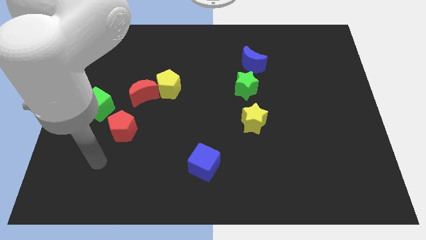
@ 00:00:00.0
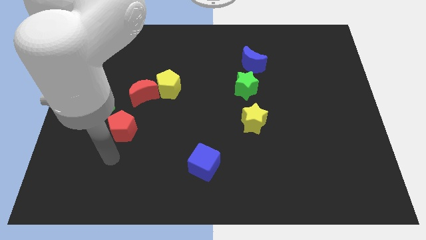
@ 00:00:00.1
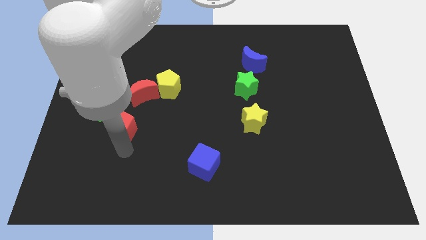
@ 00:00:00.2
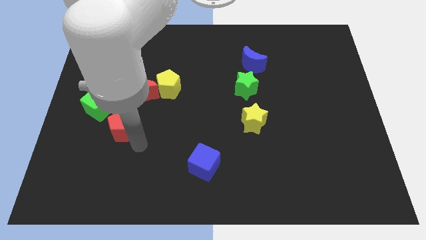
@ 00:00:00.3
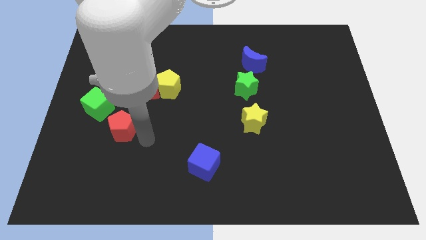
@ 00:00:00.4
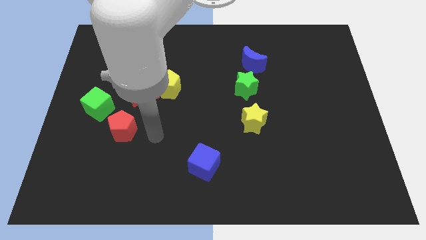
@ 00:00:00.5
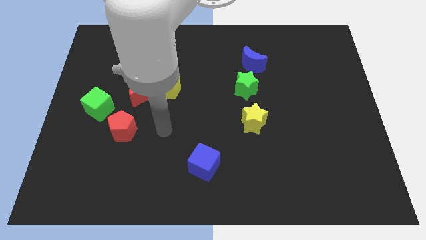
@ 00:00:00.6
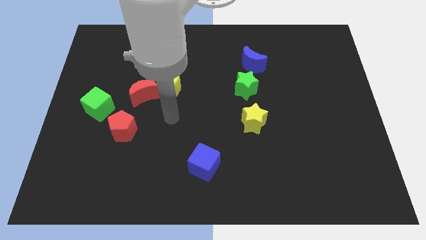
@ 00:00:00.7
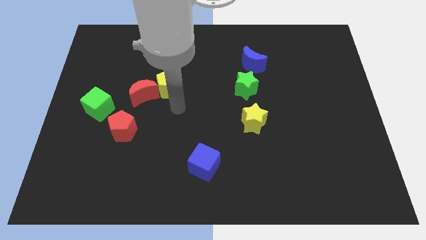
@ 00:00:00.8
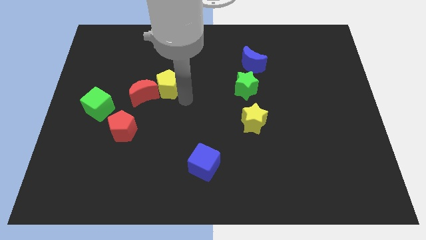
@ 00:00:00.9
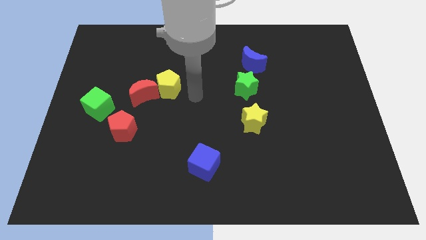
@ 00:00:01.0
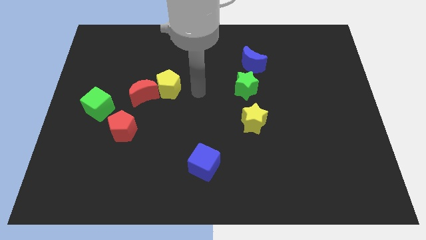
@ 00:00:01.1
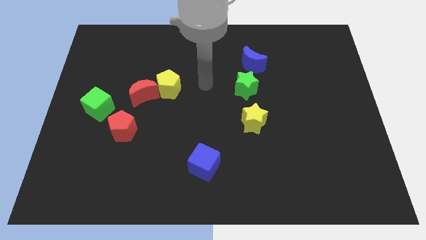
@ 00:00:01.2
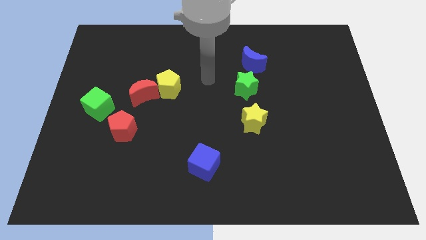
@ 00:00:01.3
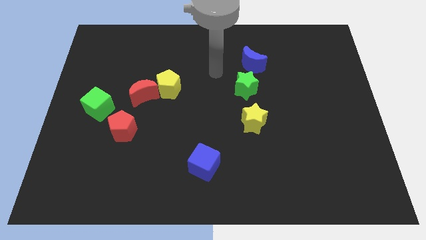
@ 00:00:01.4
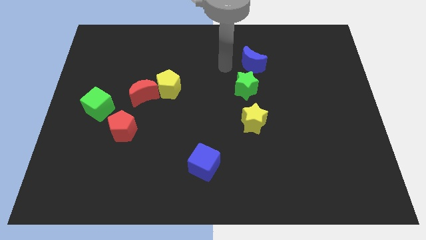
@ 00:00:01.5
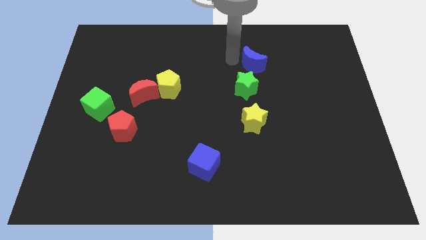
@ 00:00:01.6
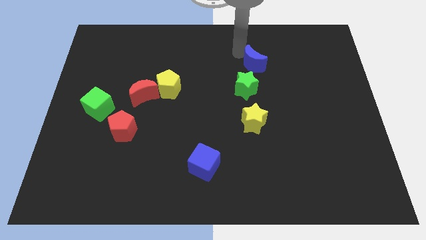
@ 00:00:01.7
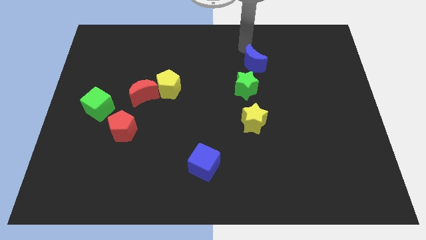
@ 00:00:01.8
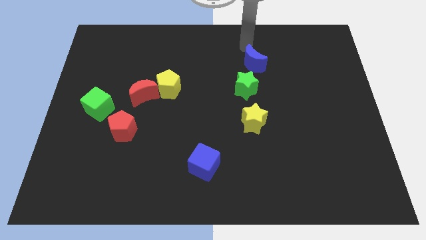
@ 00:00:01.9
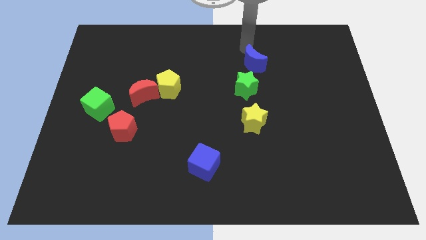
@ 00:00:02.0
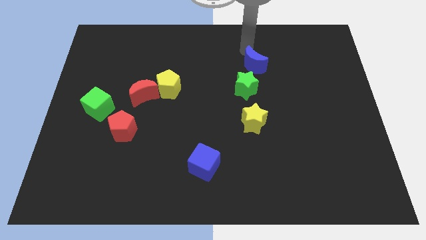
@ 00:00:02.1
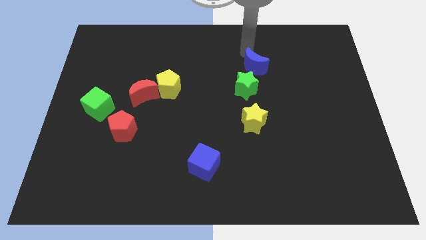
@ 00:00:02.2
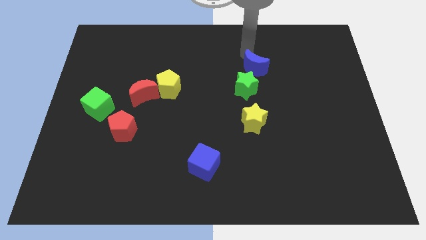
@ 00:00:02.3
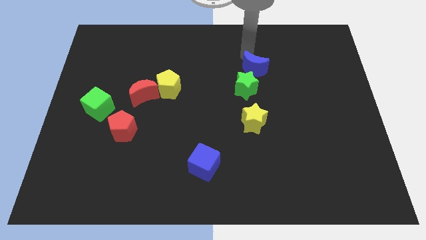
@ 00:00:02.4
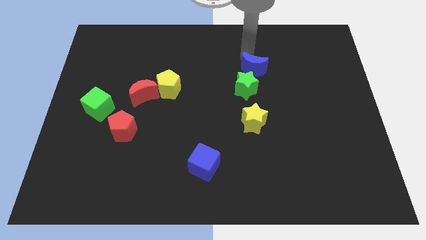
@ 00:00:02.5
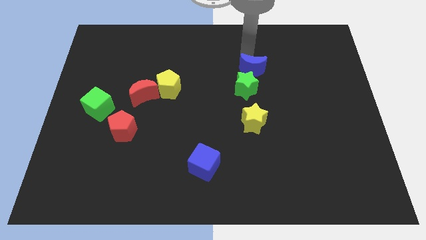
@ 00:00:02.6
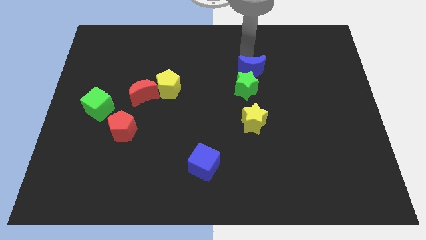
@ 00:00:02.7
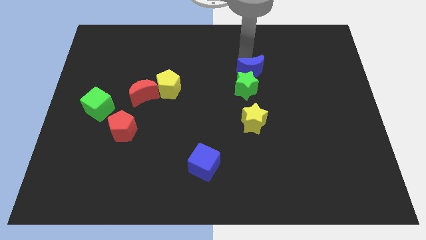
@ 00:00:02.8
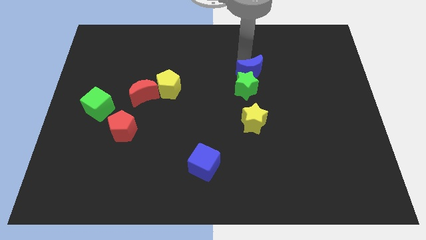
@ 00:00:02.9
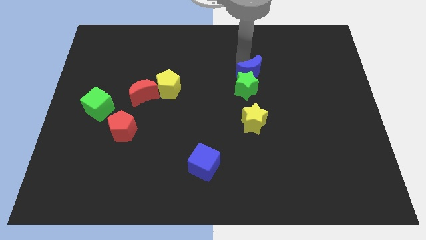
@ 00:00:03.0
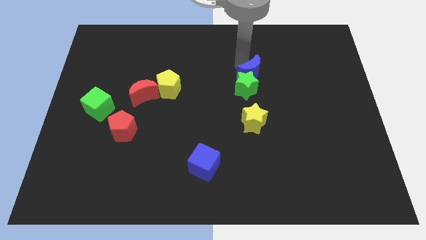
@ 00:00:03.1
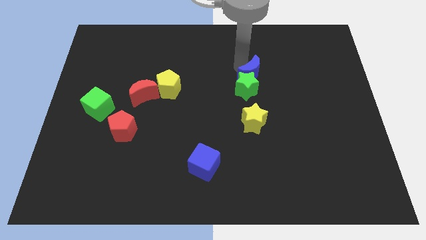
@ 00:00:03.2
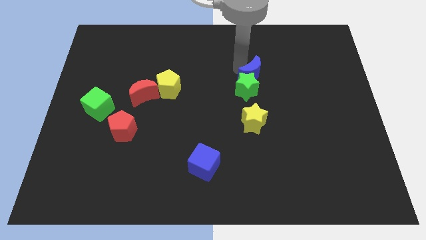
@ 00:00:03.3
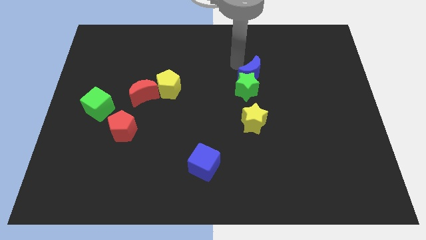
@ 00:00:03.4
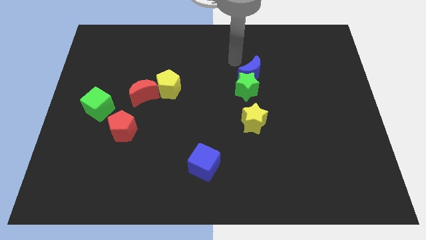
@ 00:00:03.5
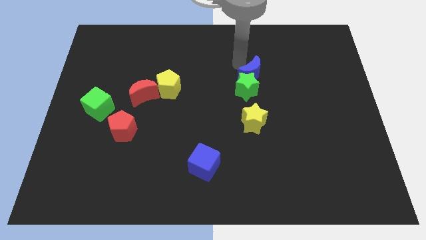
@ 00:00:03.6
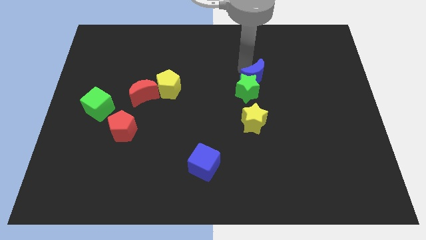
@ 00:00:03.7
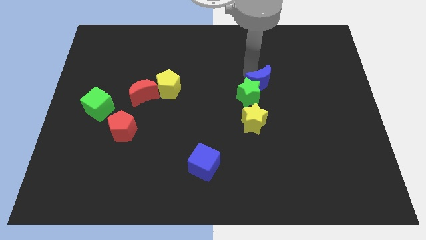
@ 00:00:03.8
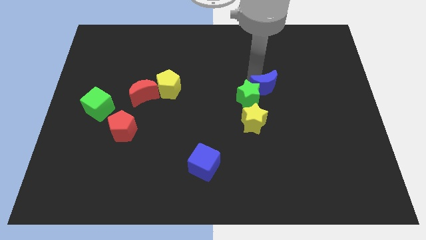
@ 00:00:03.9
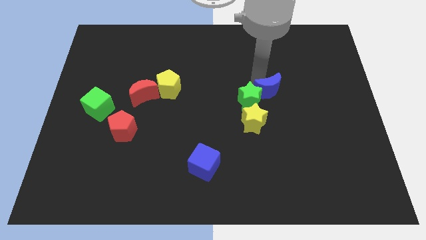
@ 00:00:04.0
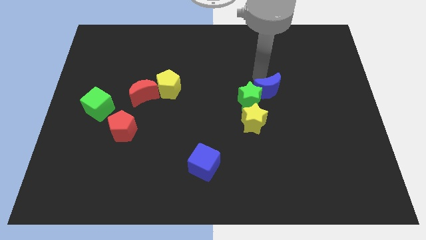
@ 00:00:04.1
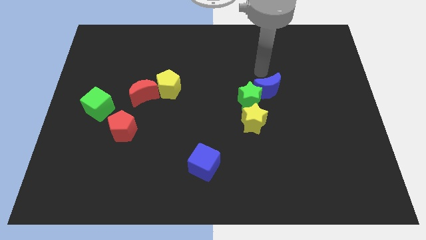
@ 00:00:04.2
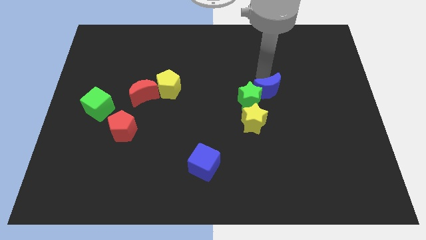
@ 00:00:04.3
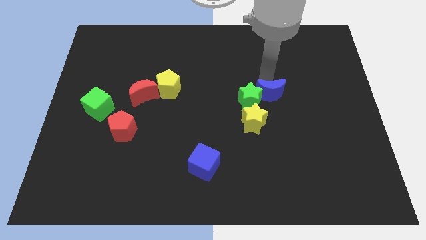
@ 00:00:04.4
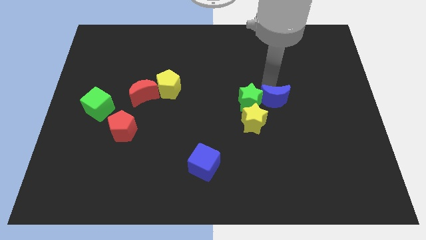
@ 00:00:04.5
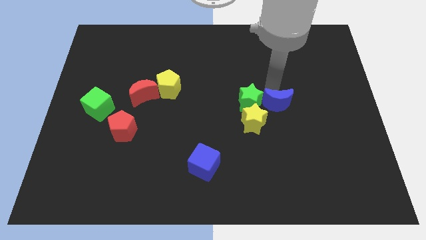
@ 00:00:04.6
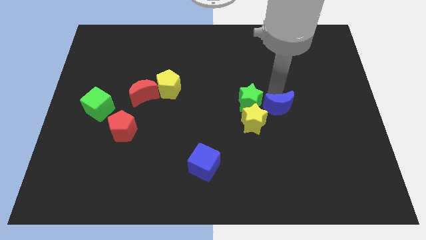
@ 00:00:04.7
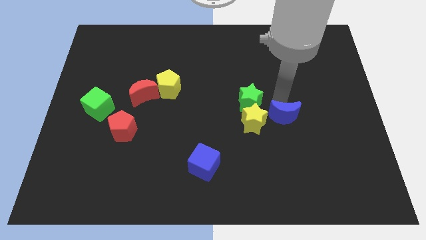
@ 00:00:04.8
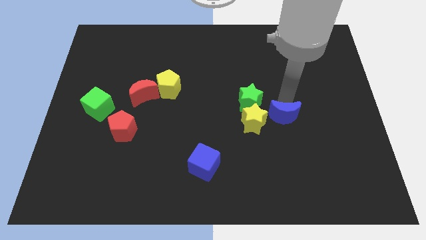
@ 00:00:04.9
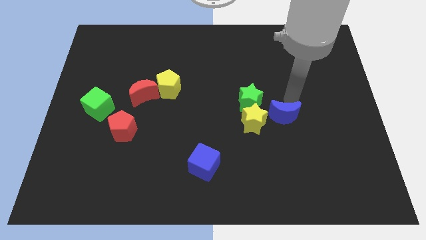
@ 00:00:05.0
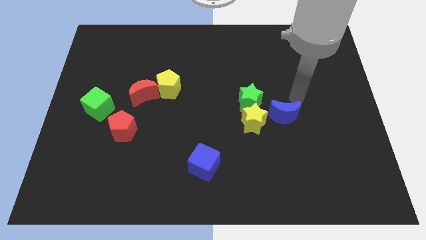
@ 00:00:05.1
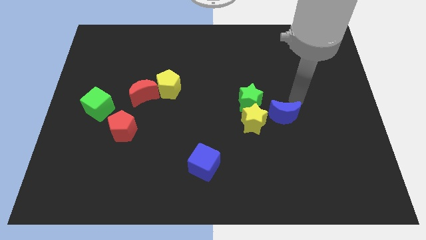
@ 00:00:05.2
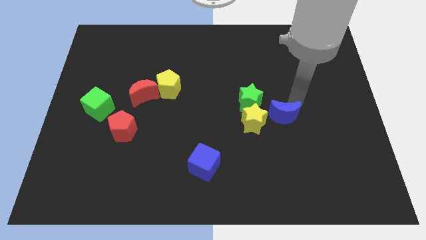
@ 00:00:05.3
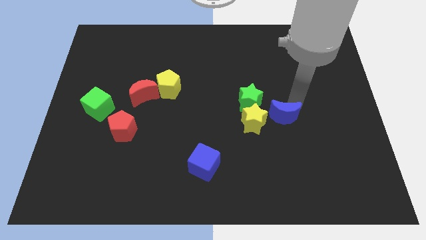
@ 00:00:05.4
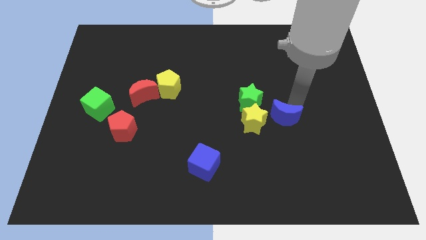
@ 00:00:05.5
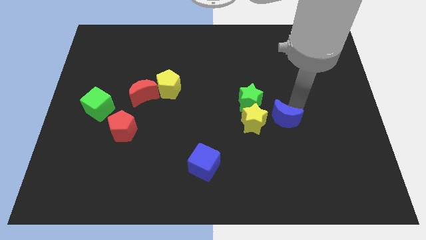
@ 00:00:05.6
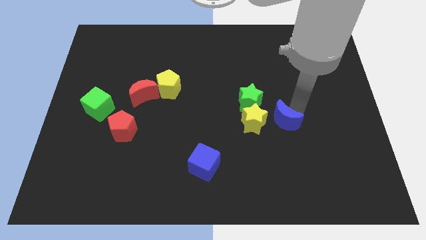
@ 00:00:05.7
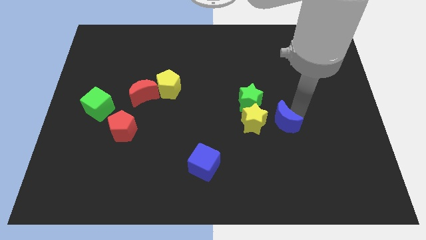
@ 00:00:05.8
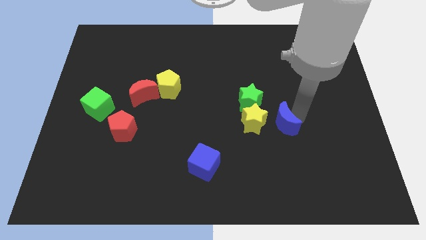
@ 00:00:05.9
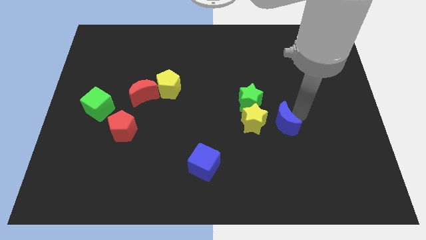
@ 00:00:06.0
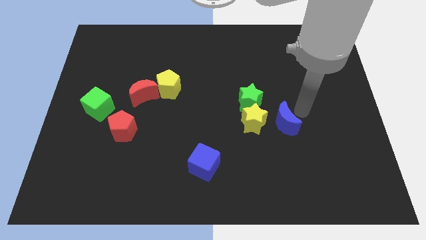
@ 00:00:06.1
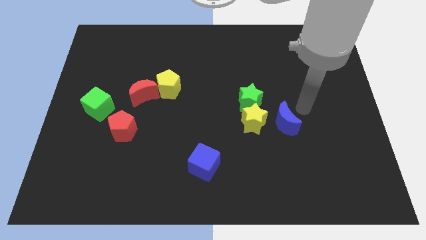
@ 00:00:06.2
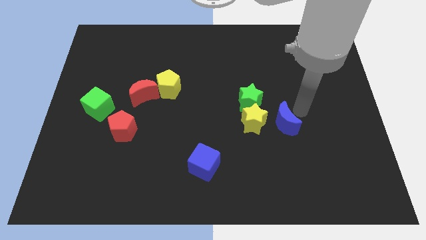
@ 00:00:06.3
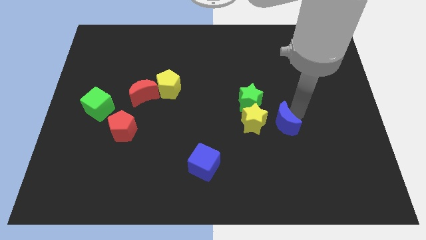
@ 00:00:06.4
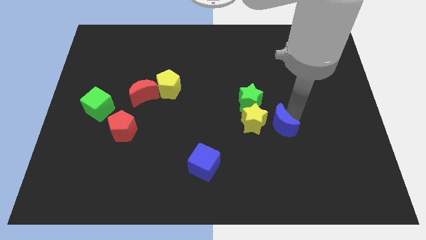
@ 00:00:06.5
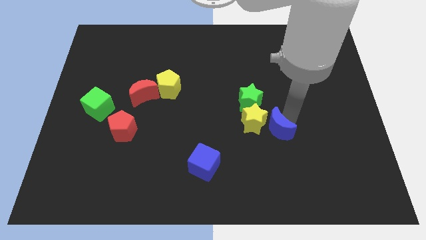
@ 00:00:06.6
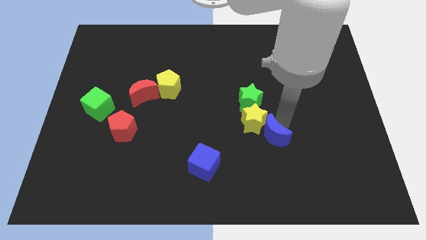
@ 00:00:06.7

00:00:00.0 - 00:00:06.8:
put the blue moon below the yellow star

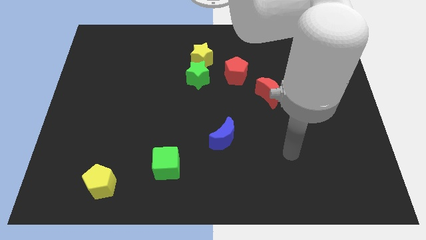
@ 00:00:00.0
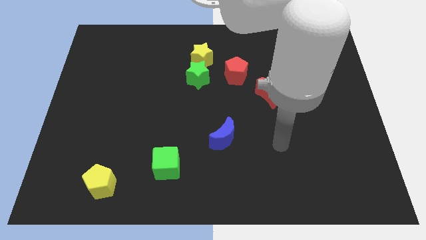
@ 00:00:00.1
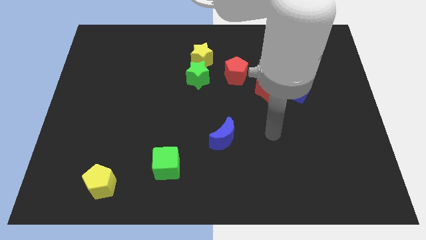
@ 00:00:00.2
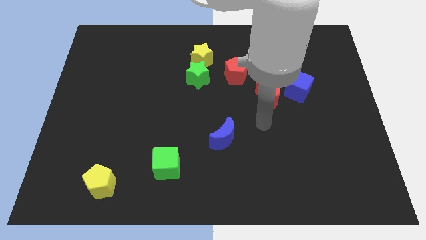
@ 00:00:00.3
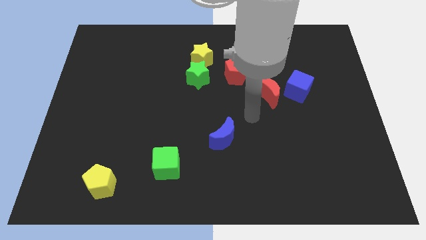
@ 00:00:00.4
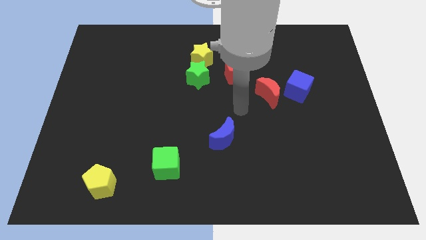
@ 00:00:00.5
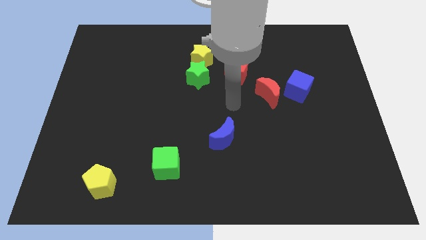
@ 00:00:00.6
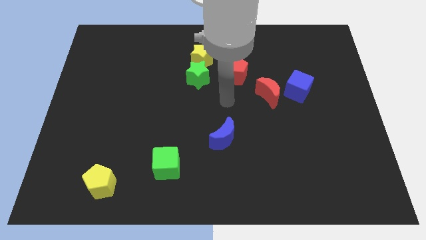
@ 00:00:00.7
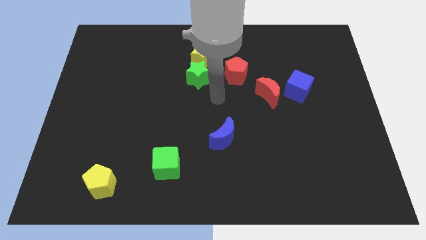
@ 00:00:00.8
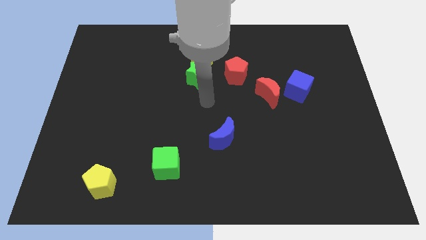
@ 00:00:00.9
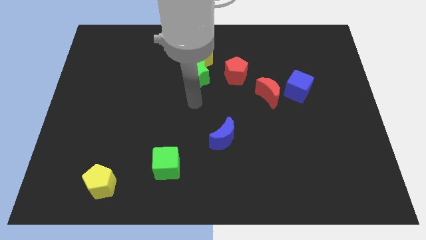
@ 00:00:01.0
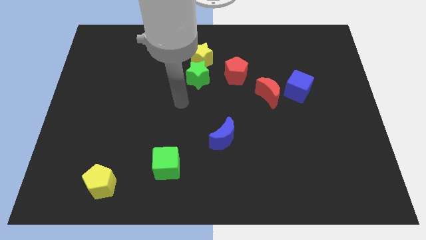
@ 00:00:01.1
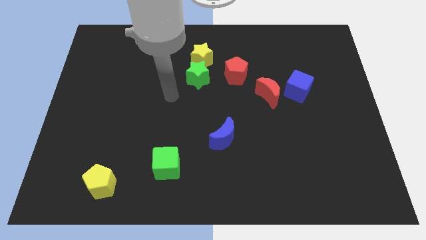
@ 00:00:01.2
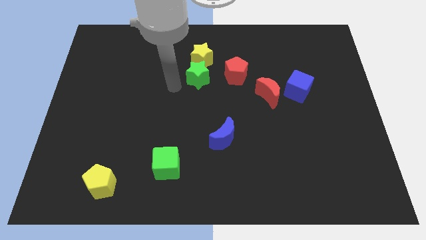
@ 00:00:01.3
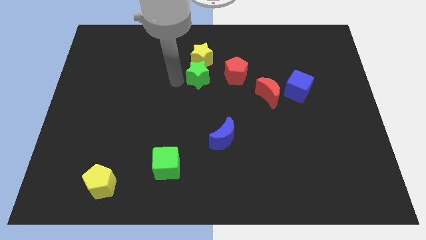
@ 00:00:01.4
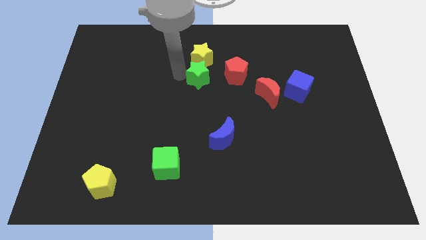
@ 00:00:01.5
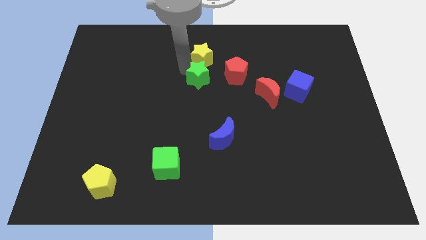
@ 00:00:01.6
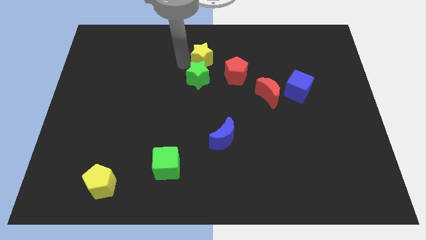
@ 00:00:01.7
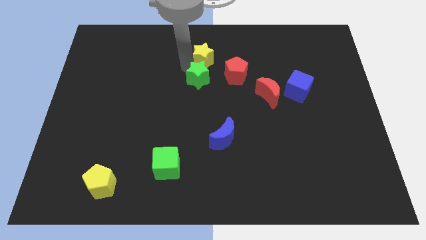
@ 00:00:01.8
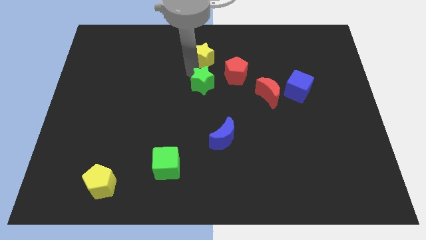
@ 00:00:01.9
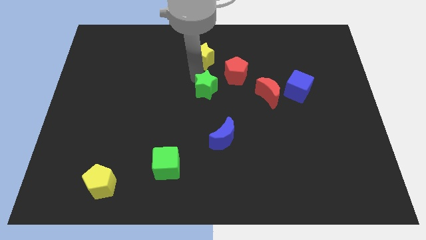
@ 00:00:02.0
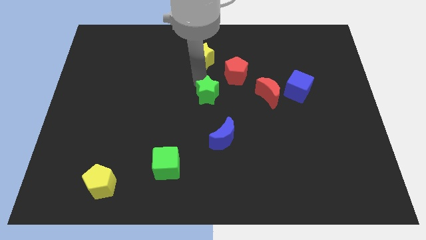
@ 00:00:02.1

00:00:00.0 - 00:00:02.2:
put the green star above the blue moon
